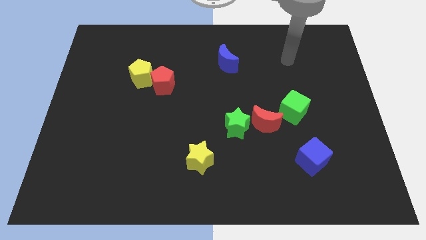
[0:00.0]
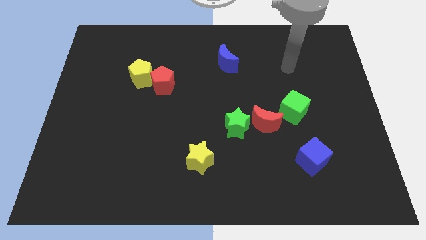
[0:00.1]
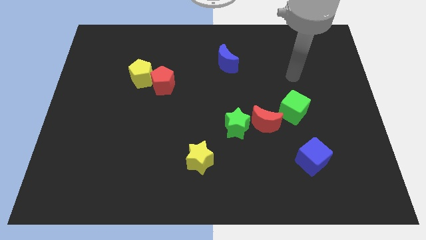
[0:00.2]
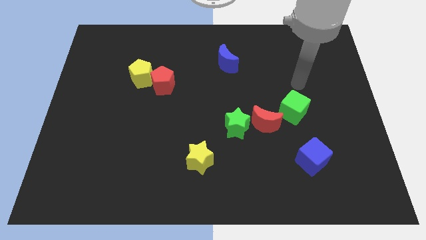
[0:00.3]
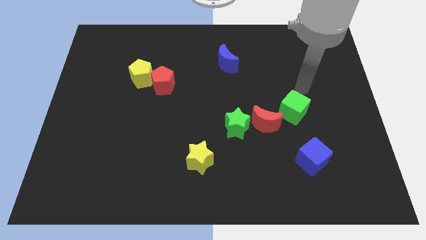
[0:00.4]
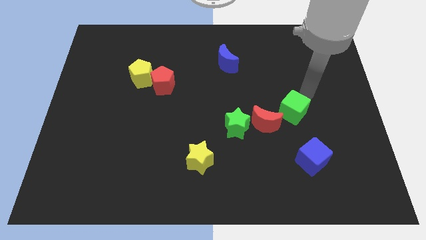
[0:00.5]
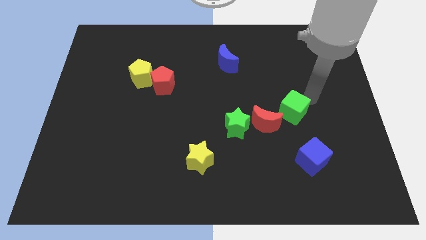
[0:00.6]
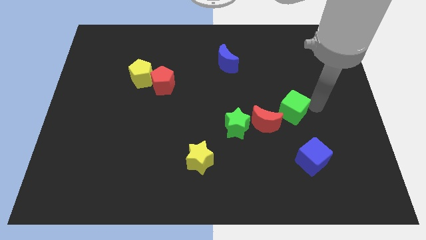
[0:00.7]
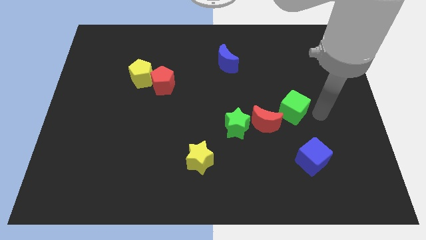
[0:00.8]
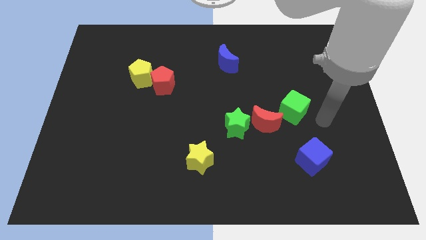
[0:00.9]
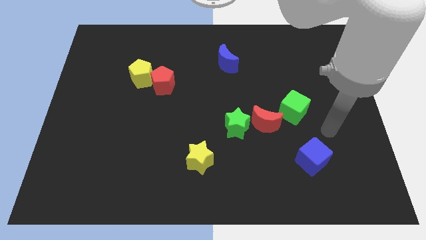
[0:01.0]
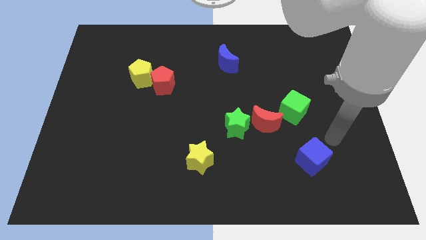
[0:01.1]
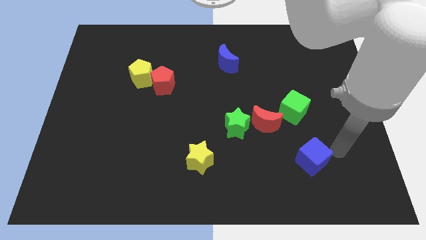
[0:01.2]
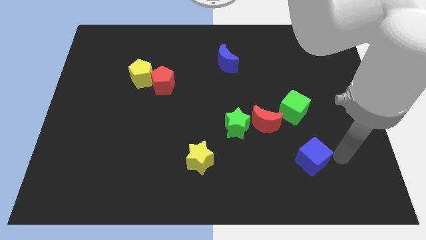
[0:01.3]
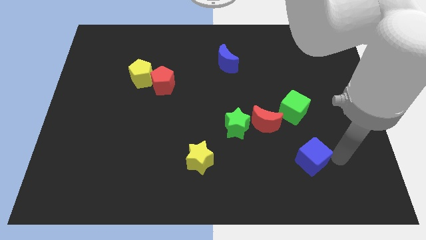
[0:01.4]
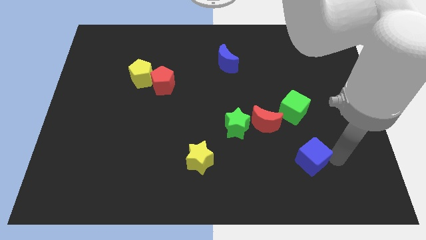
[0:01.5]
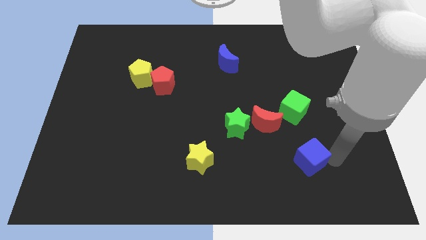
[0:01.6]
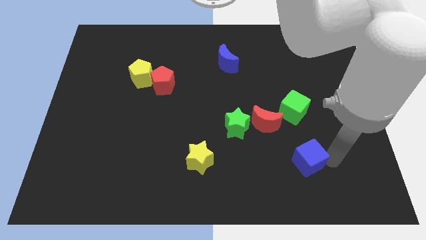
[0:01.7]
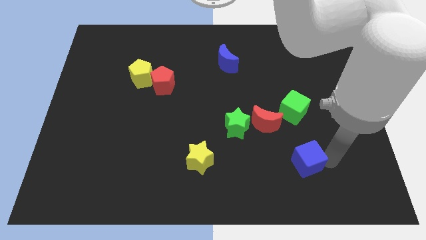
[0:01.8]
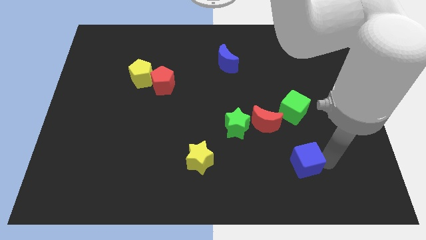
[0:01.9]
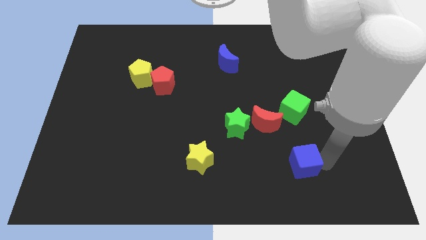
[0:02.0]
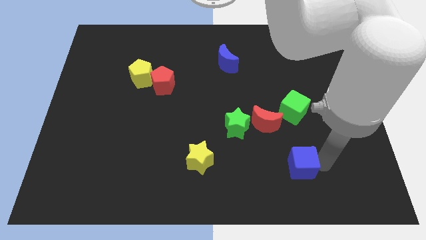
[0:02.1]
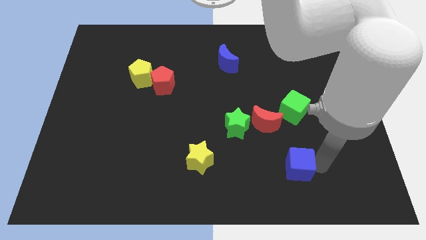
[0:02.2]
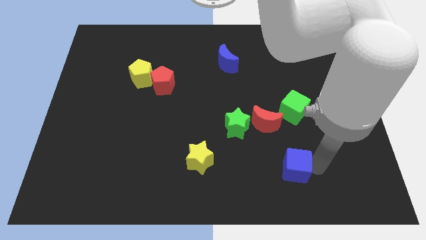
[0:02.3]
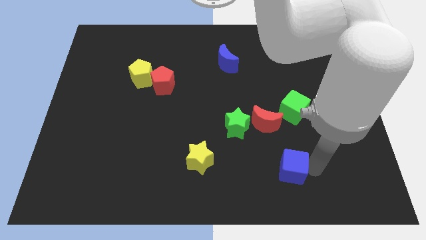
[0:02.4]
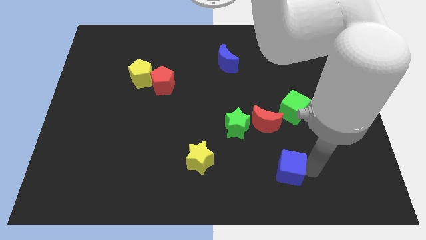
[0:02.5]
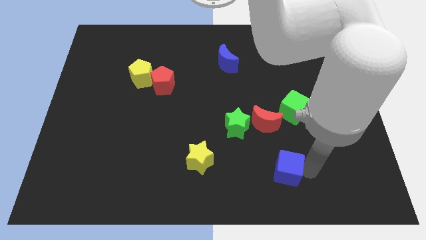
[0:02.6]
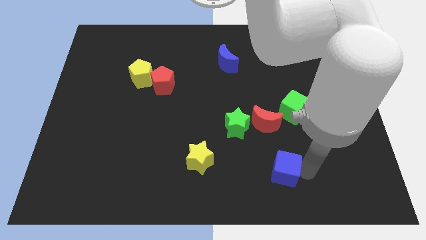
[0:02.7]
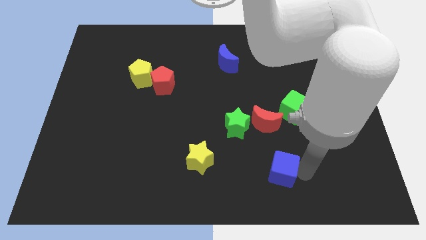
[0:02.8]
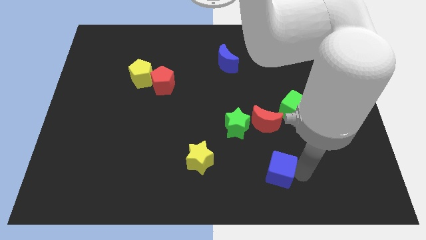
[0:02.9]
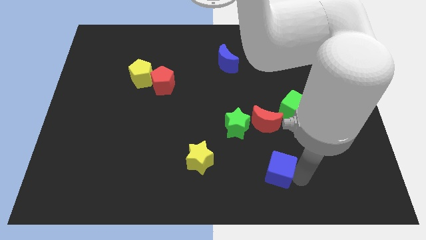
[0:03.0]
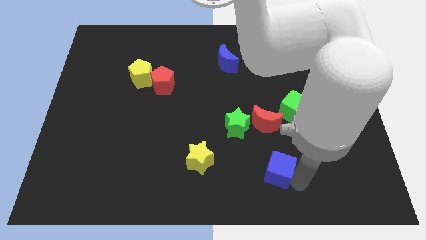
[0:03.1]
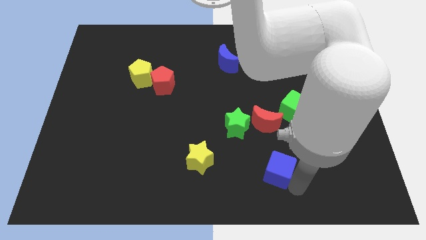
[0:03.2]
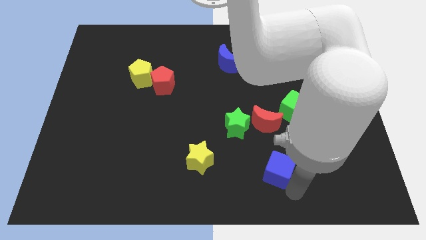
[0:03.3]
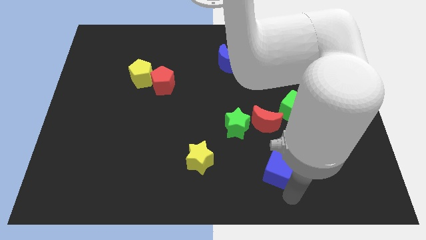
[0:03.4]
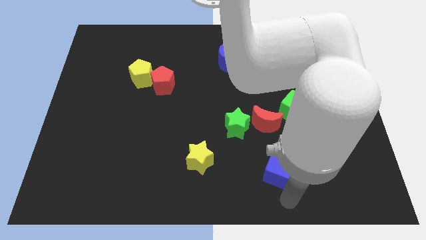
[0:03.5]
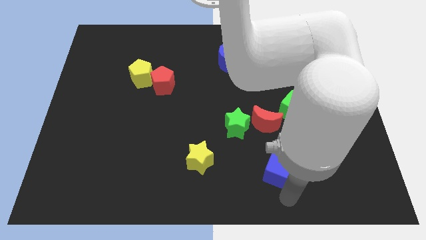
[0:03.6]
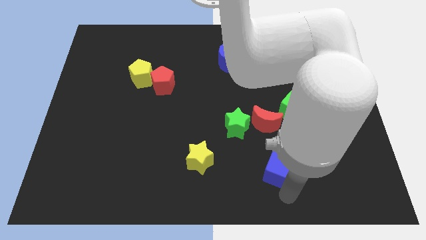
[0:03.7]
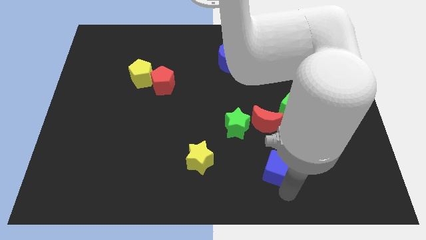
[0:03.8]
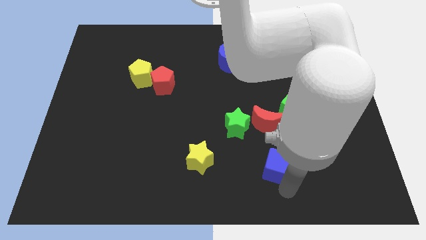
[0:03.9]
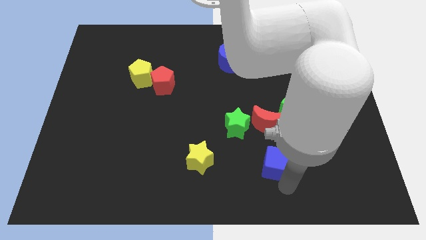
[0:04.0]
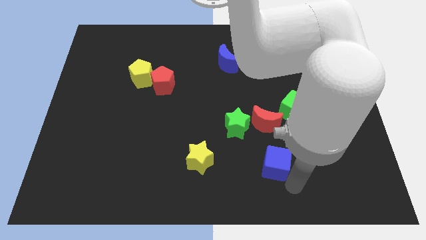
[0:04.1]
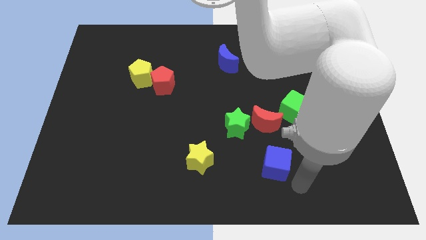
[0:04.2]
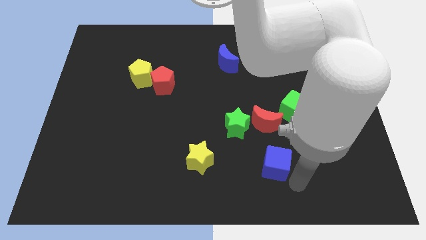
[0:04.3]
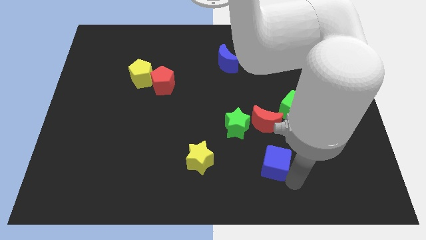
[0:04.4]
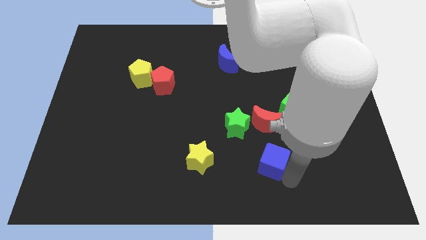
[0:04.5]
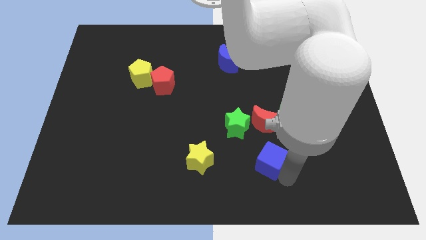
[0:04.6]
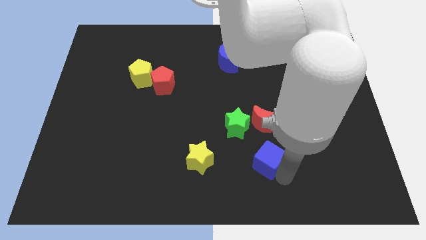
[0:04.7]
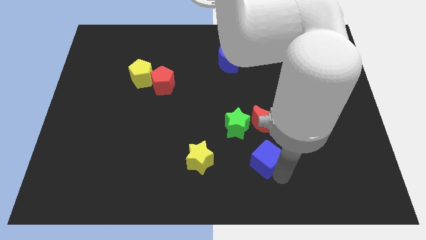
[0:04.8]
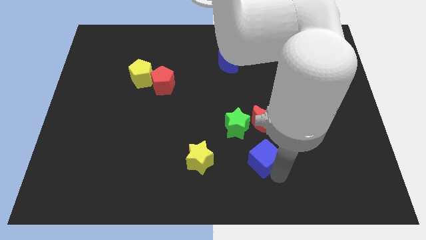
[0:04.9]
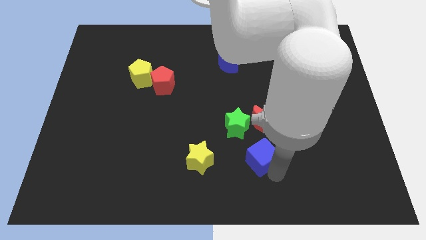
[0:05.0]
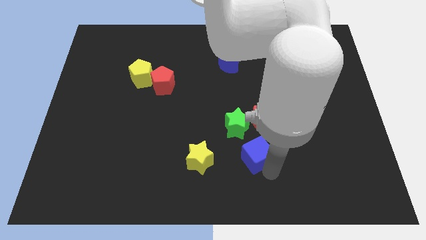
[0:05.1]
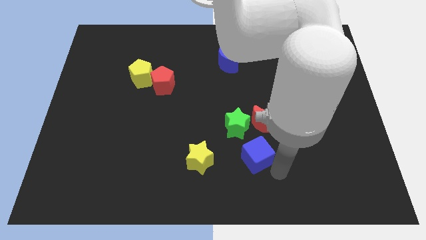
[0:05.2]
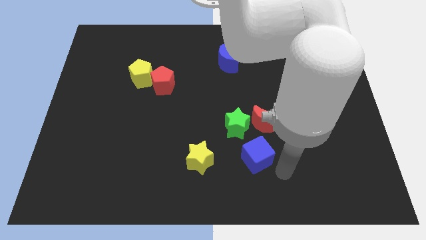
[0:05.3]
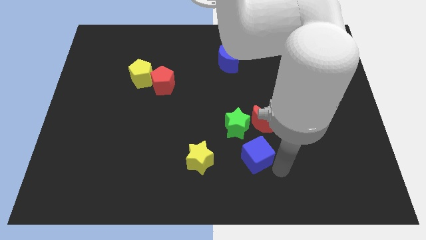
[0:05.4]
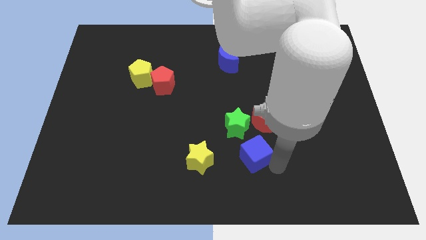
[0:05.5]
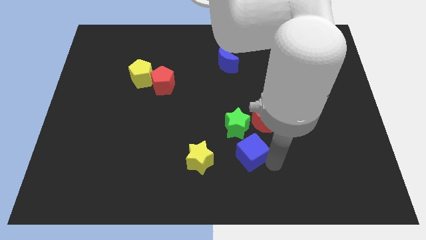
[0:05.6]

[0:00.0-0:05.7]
slightly slide the blue cube diagonally up and left

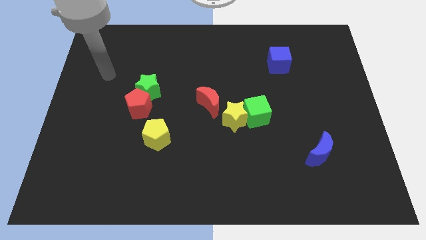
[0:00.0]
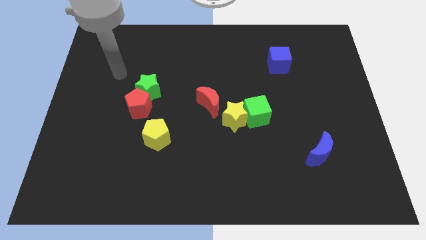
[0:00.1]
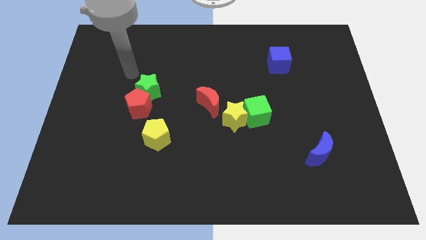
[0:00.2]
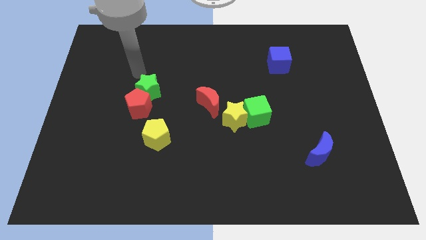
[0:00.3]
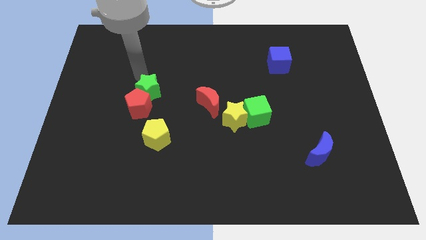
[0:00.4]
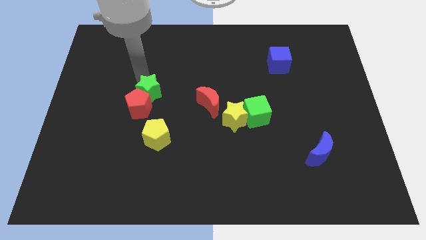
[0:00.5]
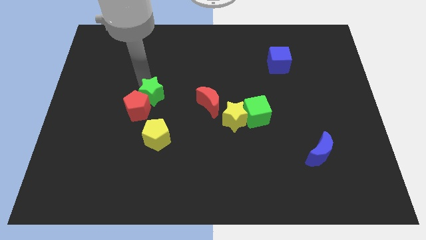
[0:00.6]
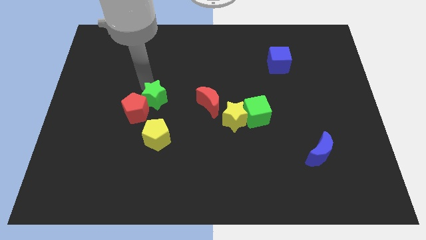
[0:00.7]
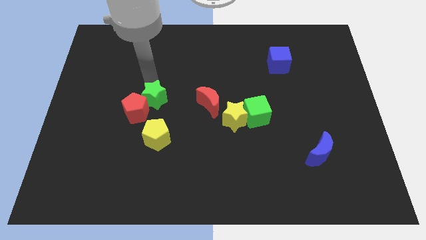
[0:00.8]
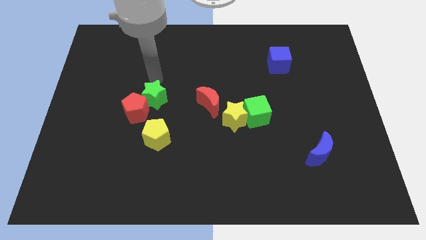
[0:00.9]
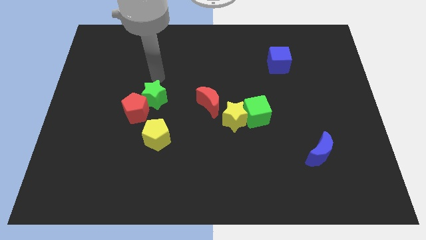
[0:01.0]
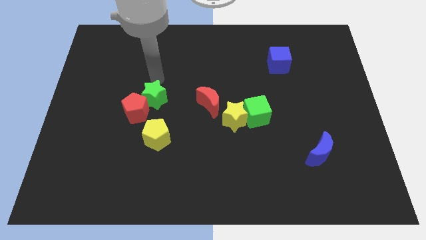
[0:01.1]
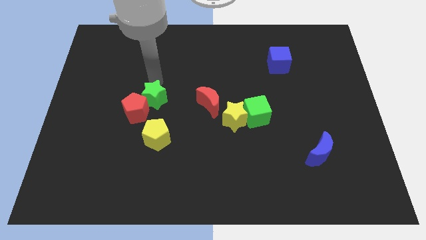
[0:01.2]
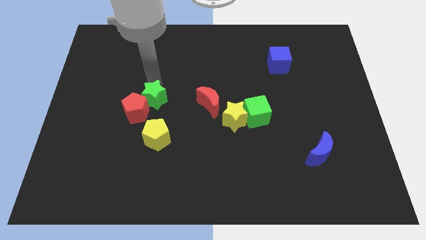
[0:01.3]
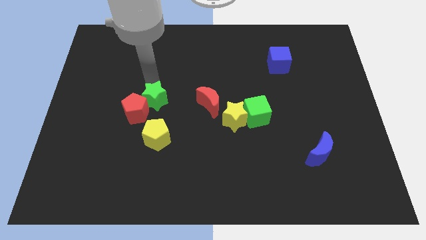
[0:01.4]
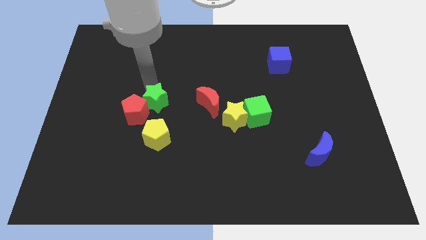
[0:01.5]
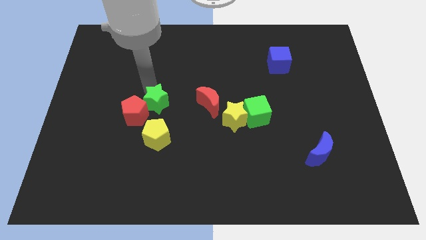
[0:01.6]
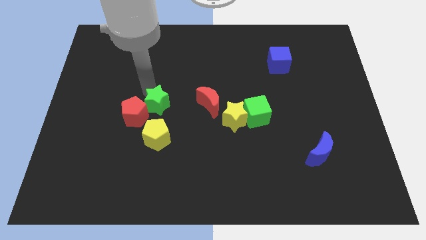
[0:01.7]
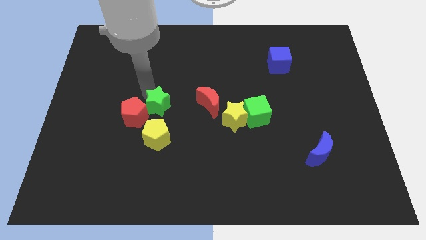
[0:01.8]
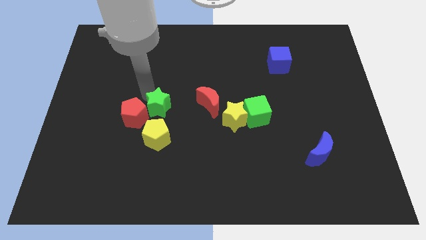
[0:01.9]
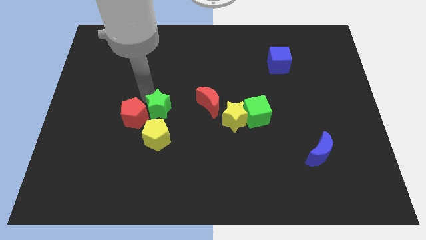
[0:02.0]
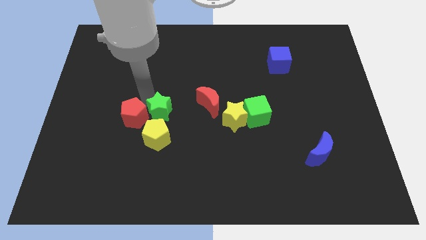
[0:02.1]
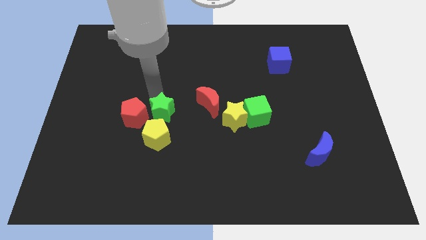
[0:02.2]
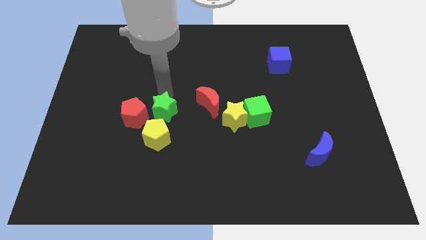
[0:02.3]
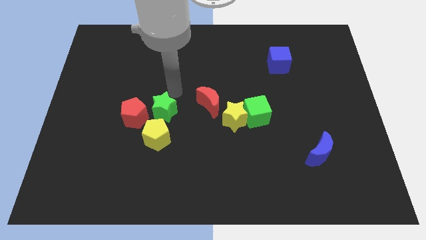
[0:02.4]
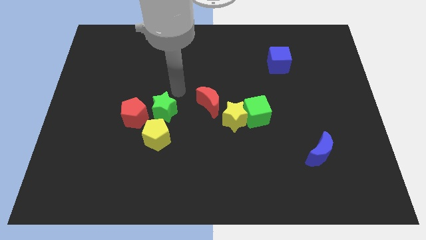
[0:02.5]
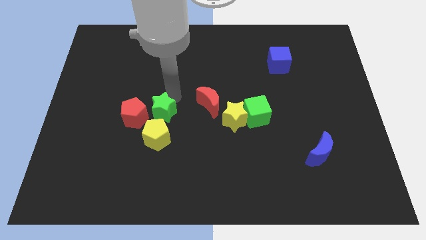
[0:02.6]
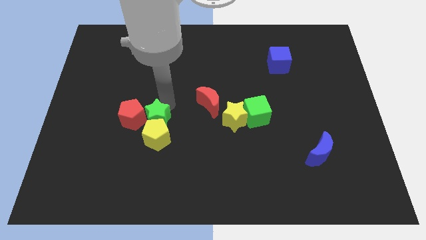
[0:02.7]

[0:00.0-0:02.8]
slightly slide the green star down
